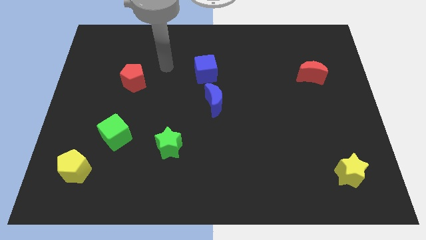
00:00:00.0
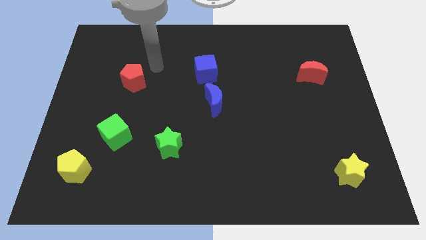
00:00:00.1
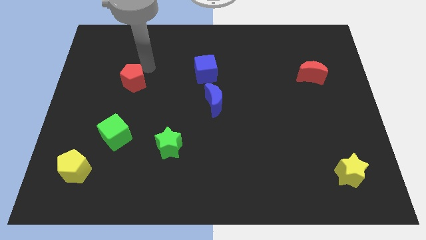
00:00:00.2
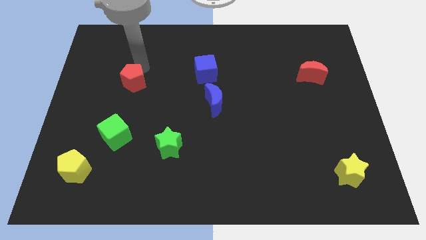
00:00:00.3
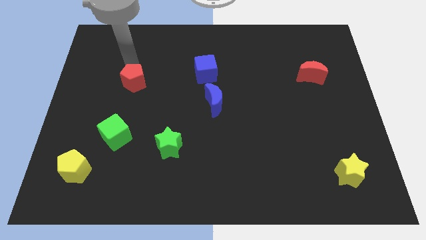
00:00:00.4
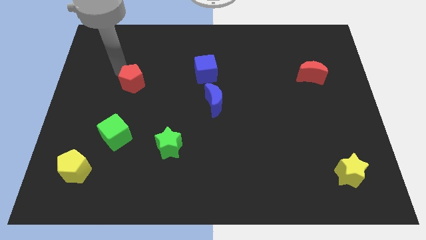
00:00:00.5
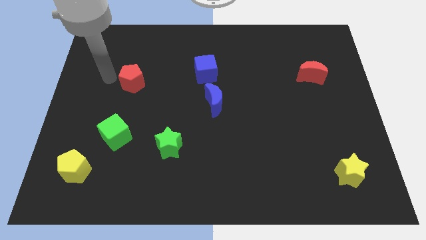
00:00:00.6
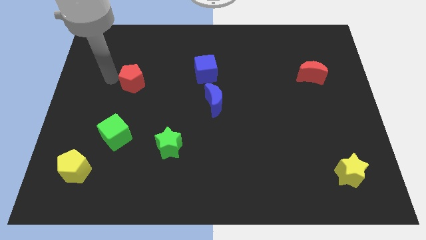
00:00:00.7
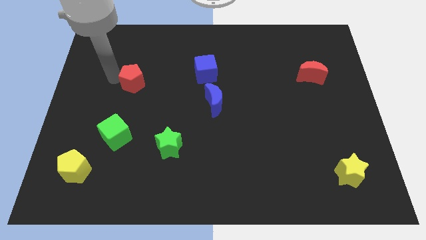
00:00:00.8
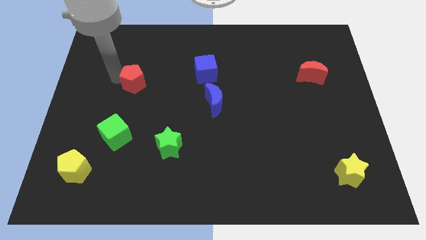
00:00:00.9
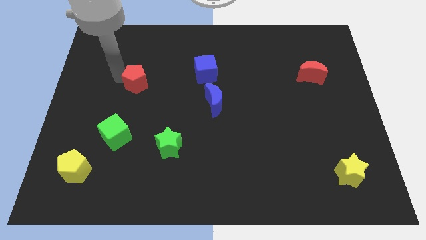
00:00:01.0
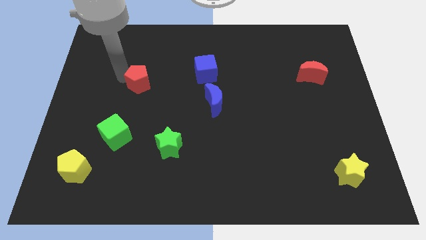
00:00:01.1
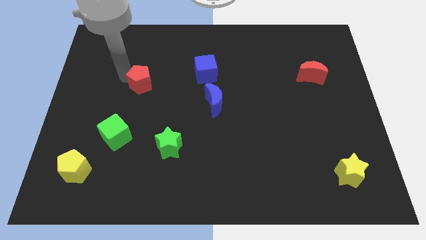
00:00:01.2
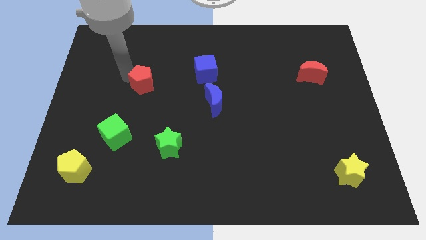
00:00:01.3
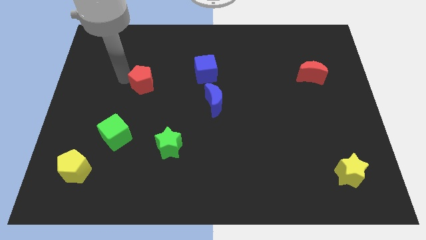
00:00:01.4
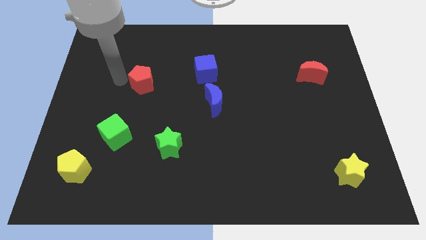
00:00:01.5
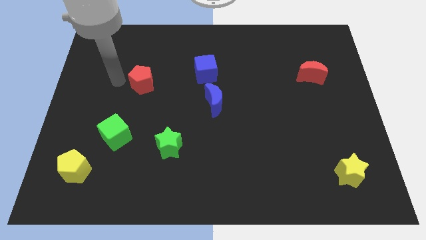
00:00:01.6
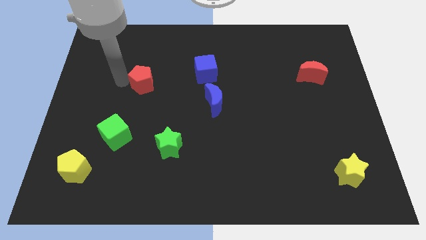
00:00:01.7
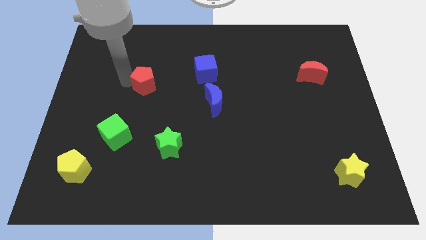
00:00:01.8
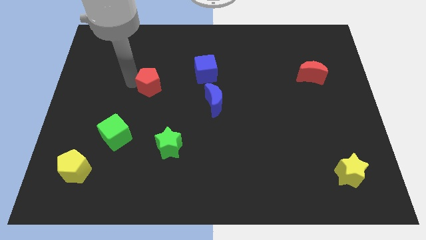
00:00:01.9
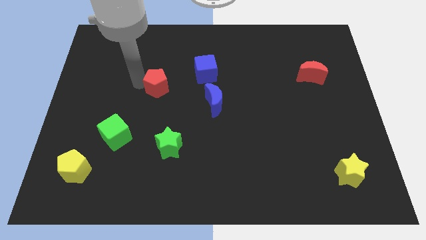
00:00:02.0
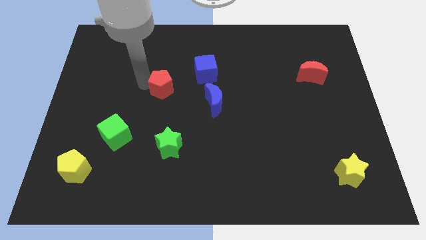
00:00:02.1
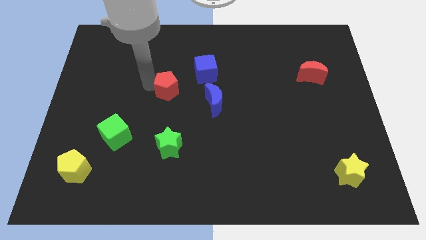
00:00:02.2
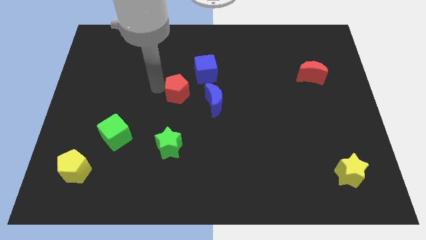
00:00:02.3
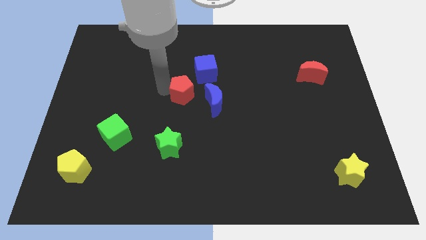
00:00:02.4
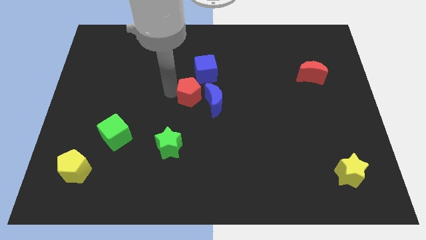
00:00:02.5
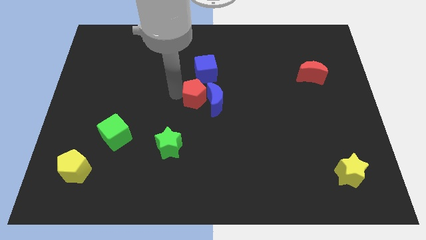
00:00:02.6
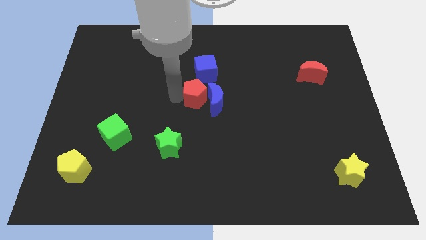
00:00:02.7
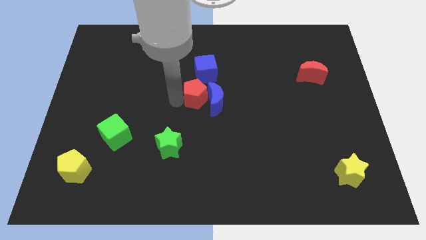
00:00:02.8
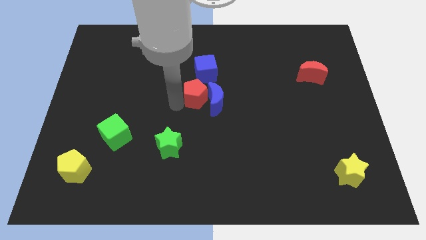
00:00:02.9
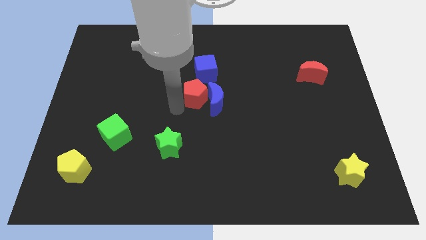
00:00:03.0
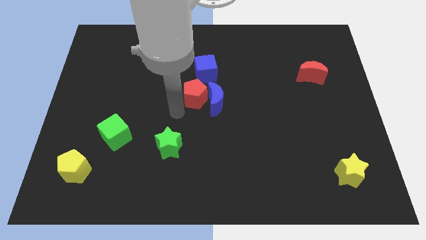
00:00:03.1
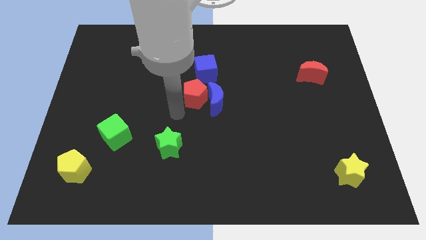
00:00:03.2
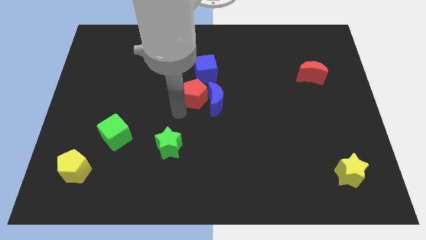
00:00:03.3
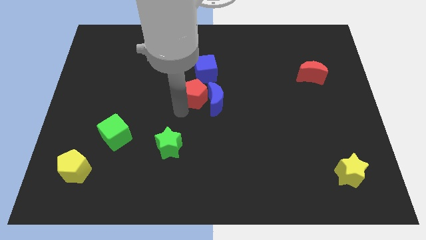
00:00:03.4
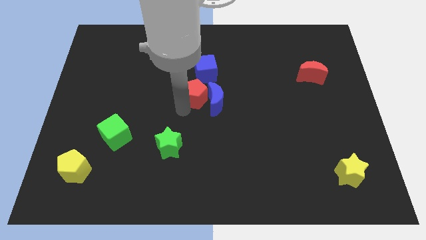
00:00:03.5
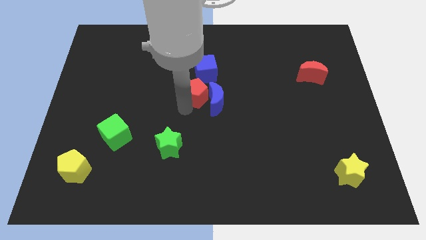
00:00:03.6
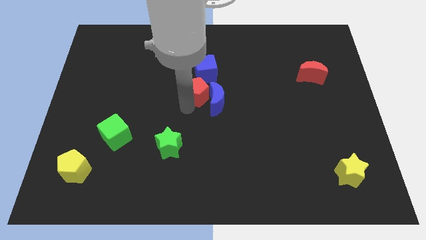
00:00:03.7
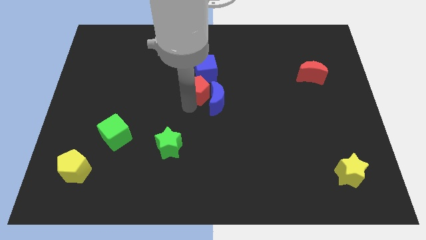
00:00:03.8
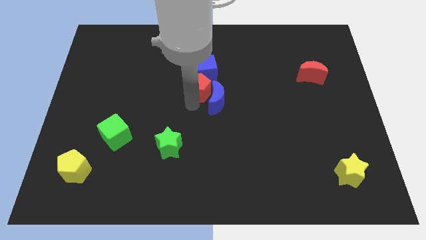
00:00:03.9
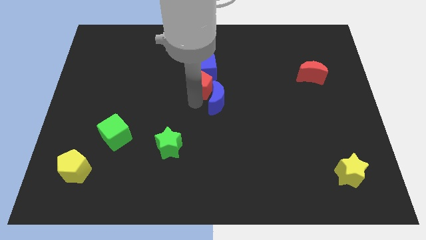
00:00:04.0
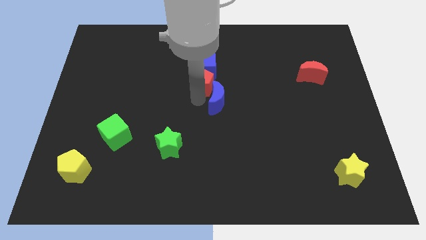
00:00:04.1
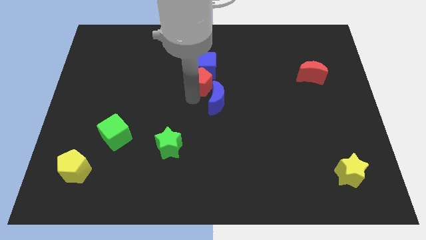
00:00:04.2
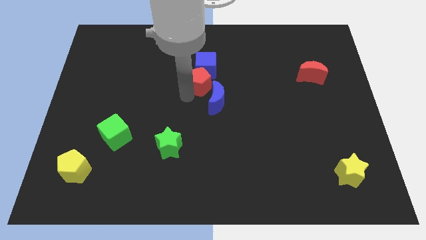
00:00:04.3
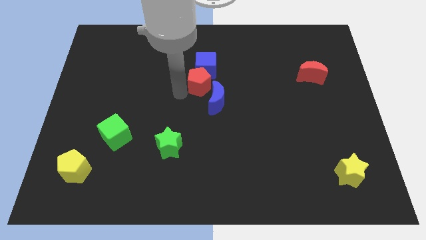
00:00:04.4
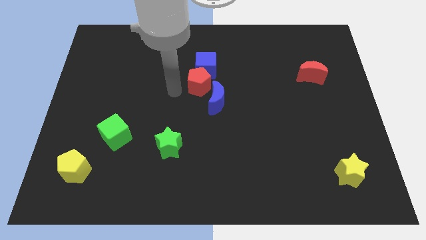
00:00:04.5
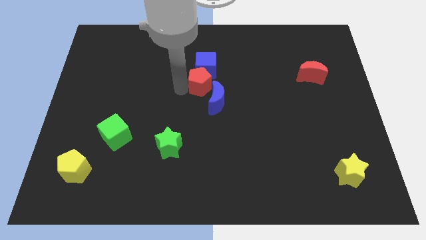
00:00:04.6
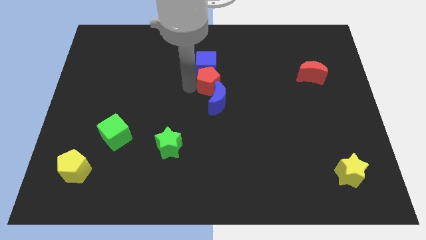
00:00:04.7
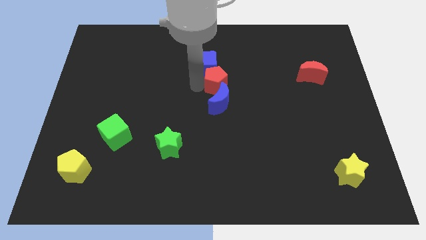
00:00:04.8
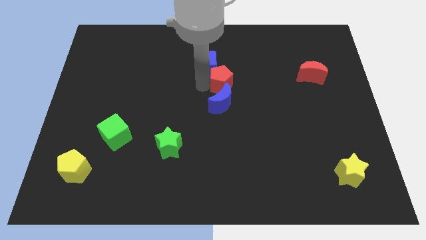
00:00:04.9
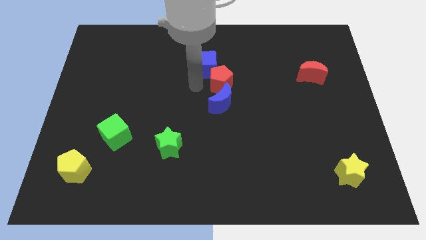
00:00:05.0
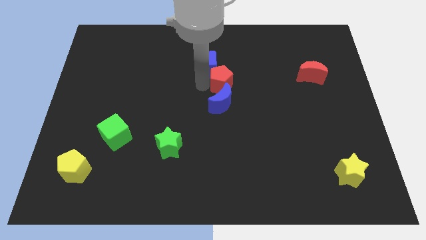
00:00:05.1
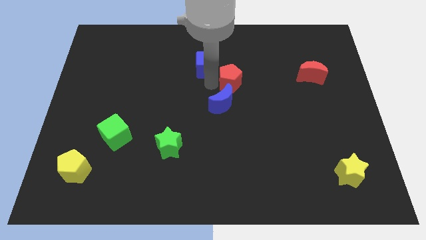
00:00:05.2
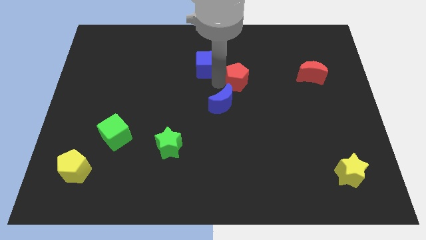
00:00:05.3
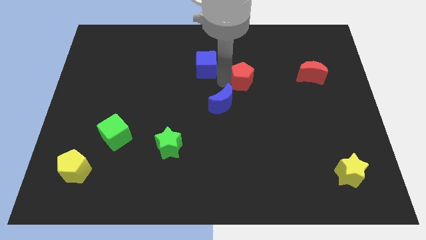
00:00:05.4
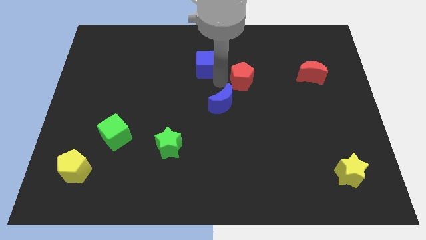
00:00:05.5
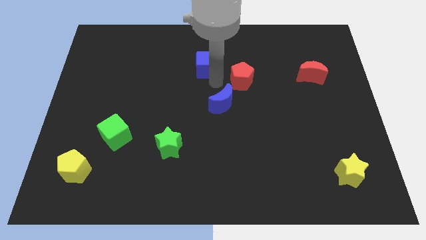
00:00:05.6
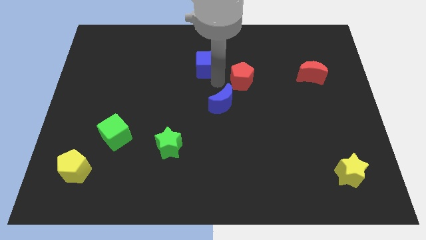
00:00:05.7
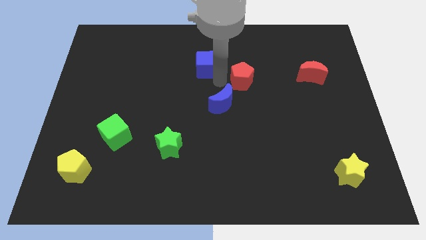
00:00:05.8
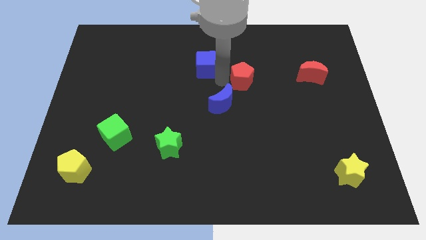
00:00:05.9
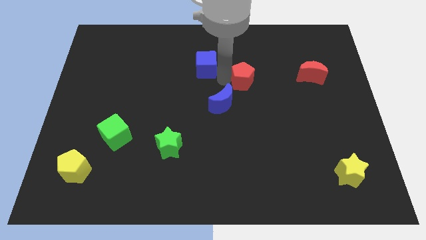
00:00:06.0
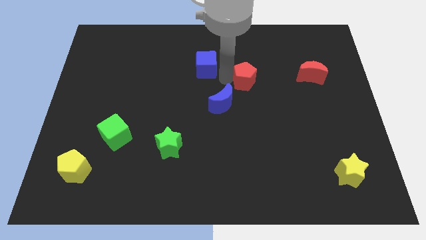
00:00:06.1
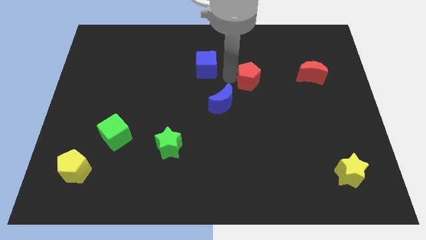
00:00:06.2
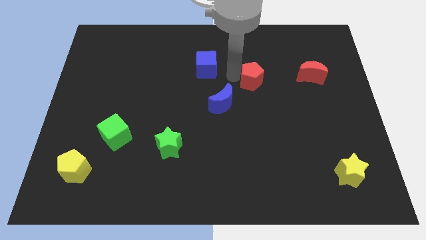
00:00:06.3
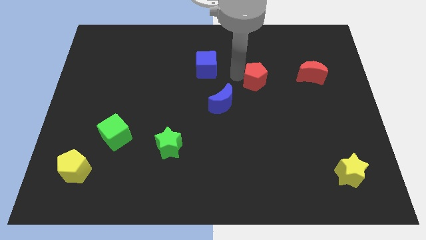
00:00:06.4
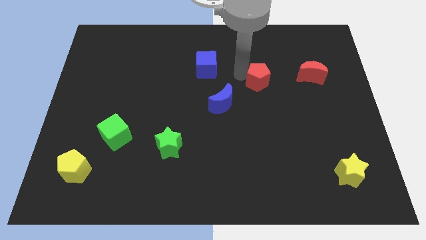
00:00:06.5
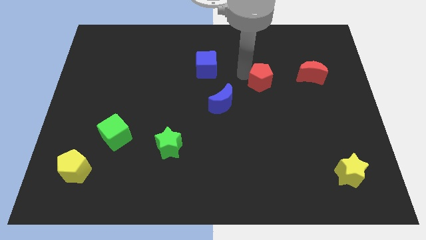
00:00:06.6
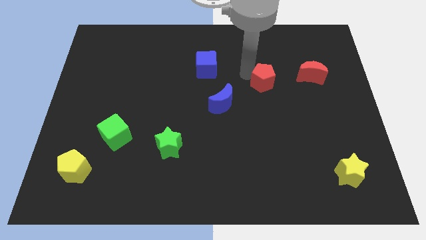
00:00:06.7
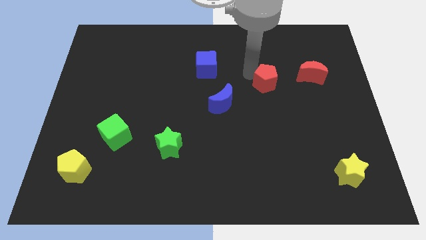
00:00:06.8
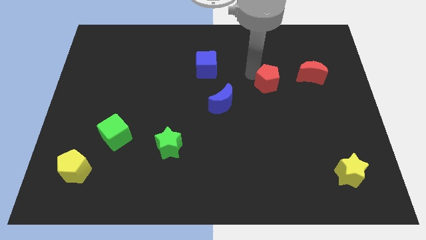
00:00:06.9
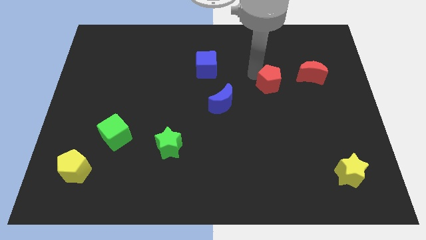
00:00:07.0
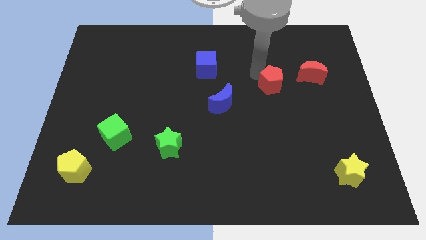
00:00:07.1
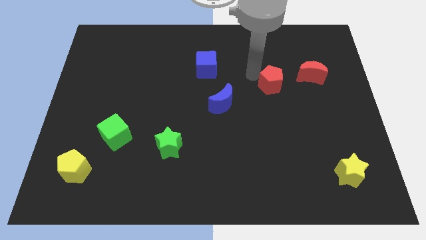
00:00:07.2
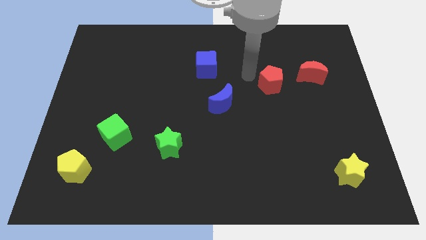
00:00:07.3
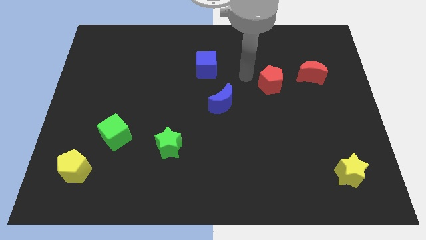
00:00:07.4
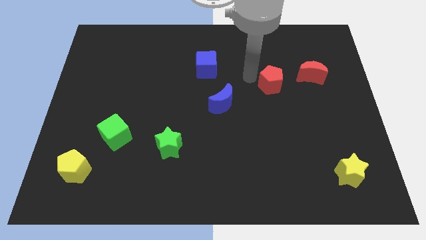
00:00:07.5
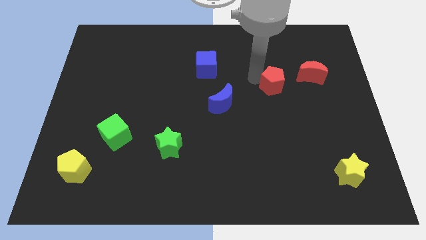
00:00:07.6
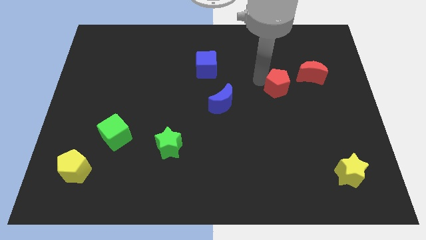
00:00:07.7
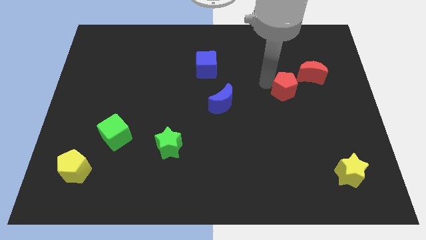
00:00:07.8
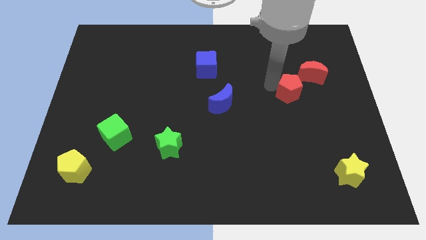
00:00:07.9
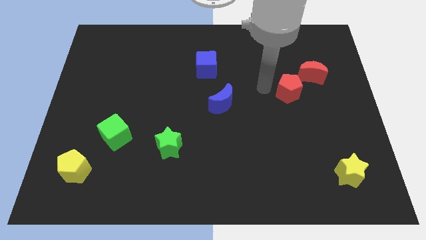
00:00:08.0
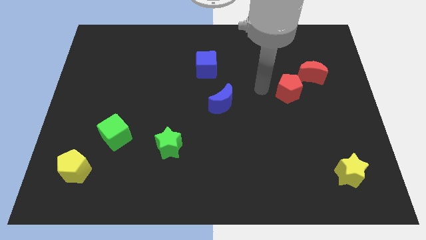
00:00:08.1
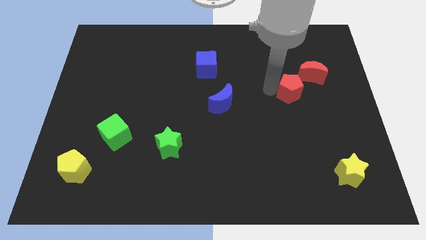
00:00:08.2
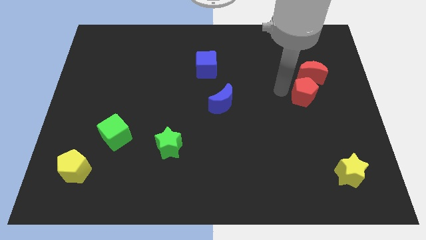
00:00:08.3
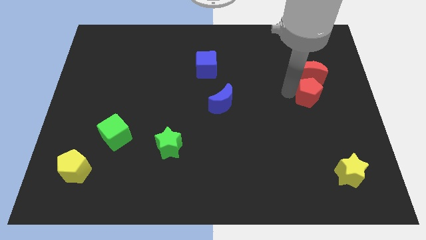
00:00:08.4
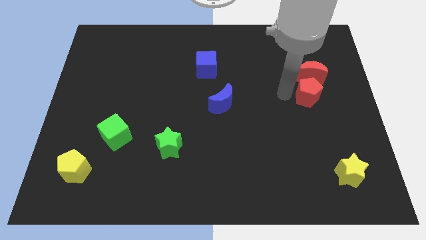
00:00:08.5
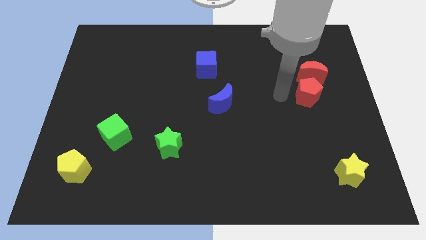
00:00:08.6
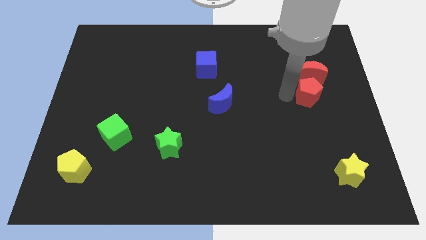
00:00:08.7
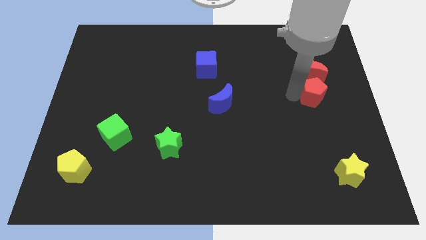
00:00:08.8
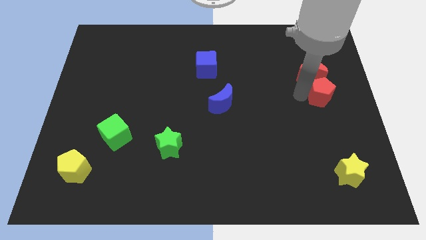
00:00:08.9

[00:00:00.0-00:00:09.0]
push the red pentagon to the right side of the board
